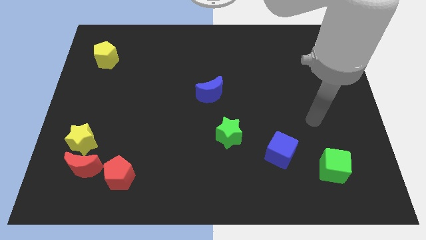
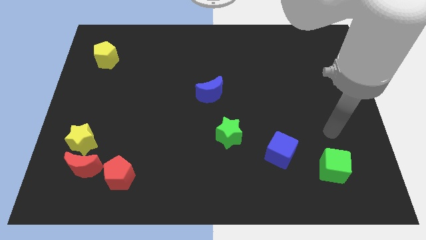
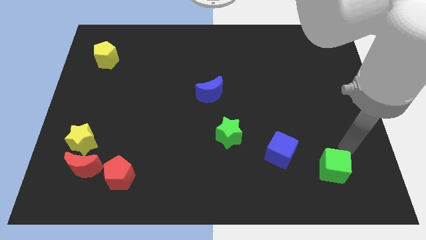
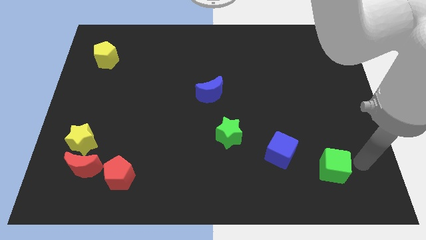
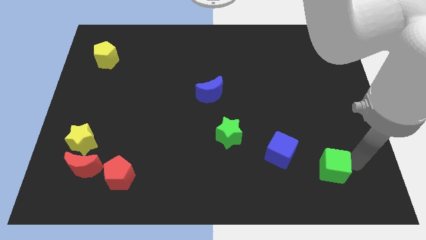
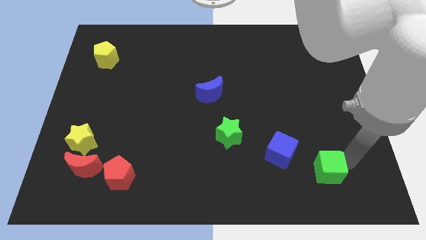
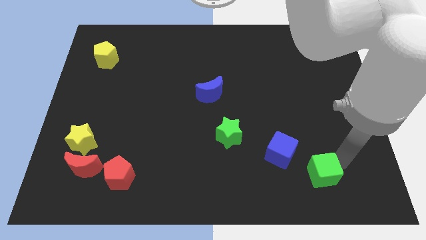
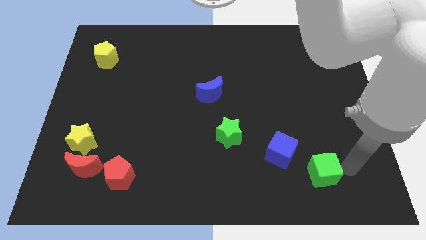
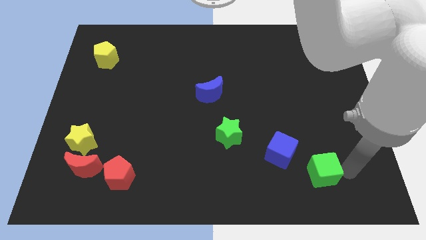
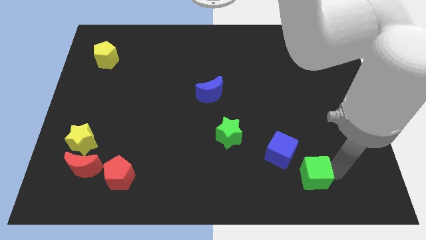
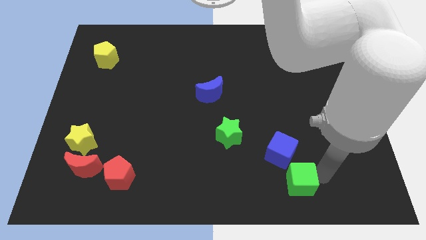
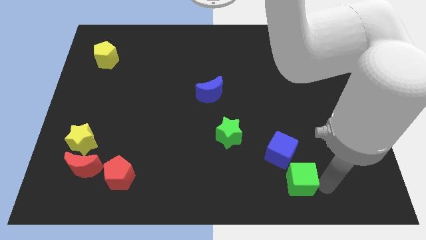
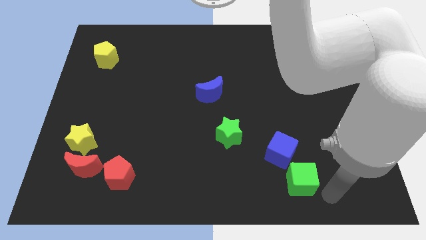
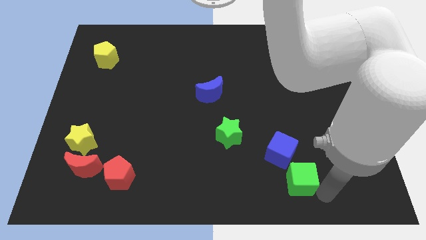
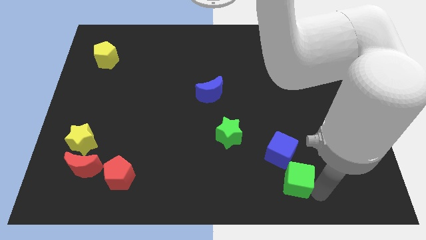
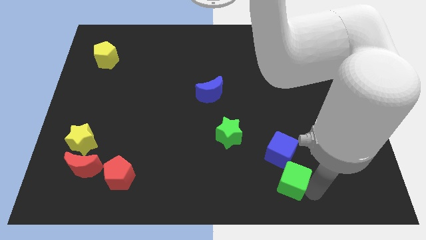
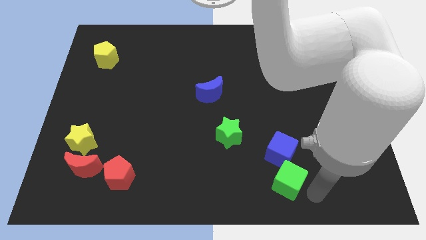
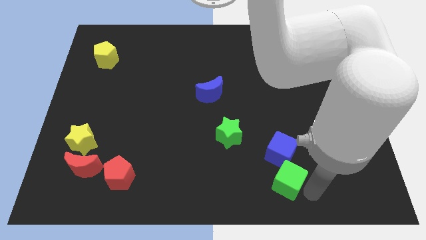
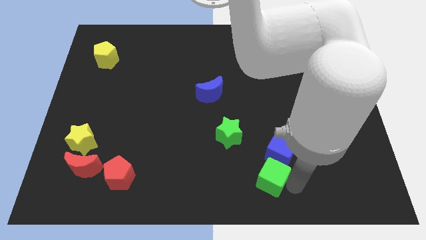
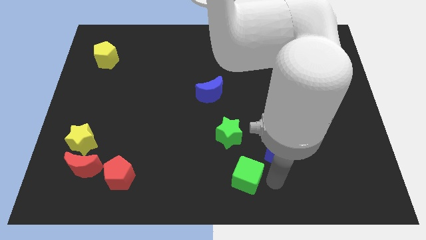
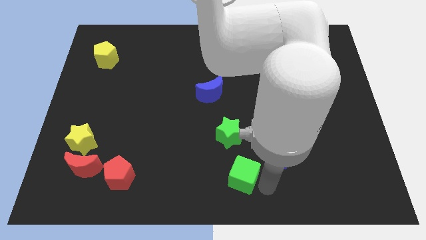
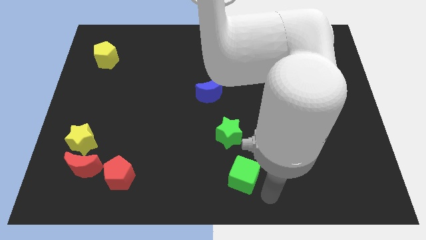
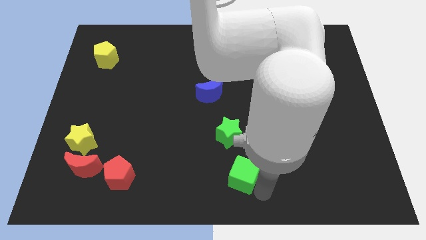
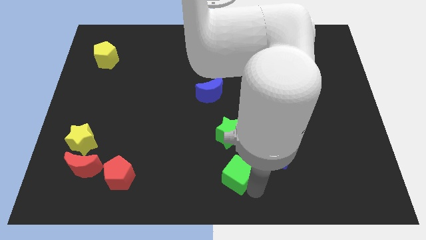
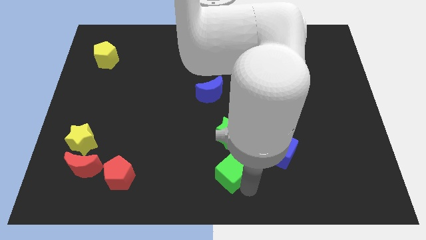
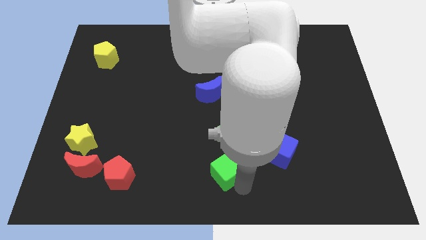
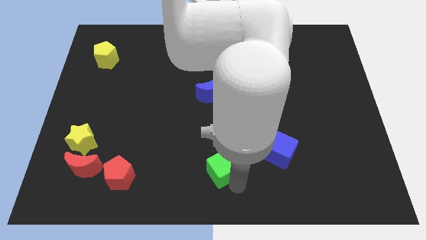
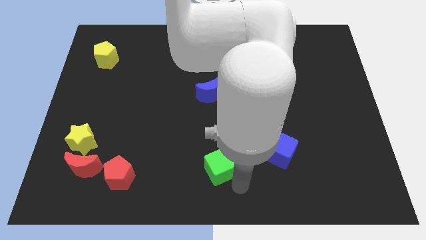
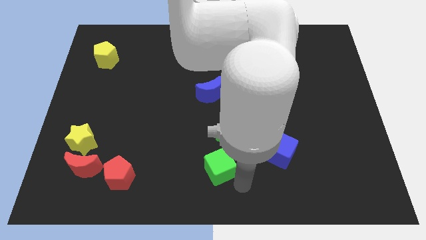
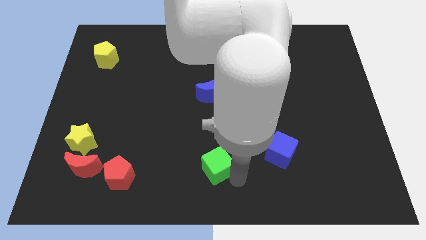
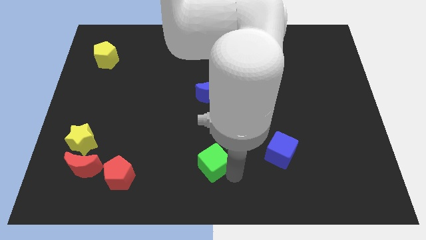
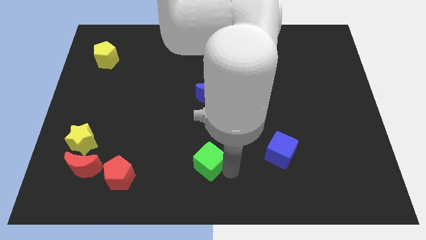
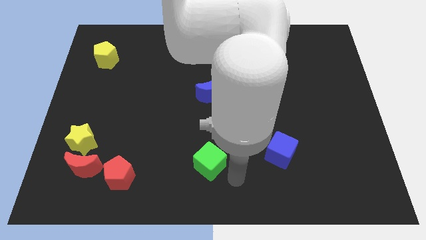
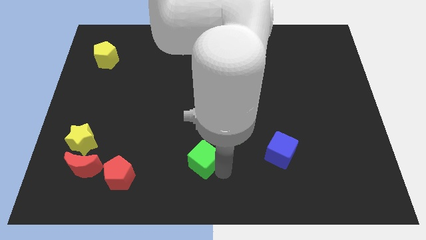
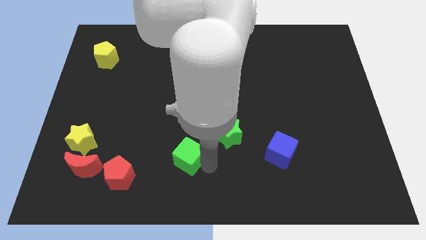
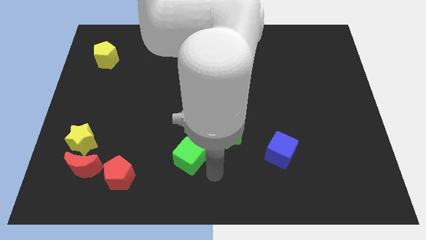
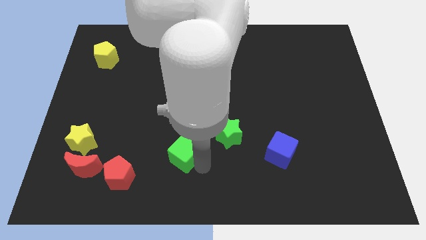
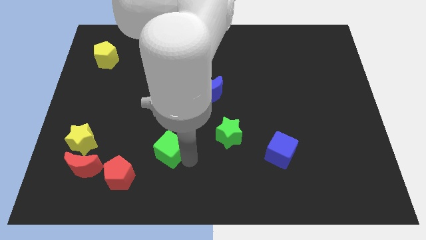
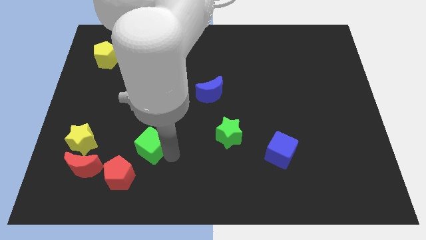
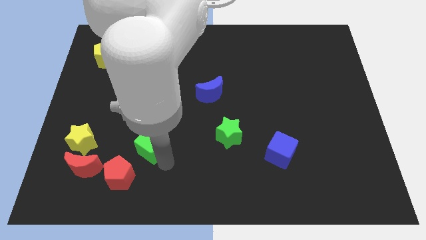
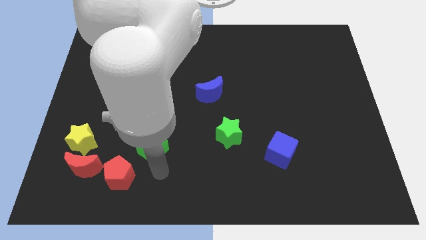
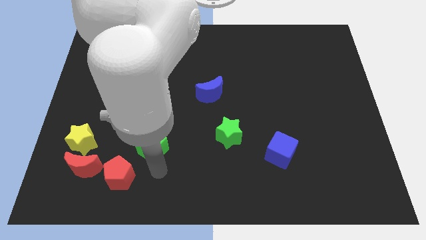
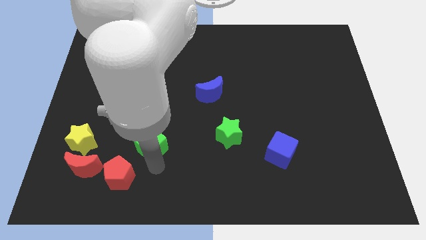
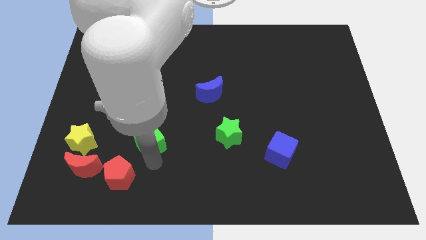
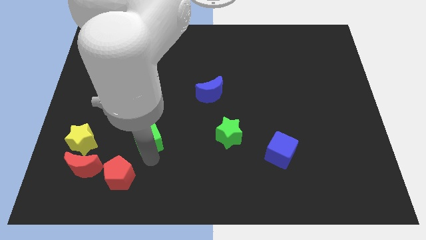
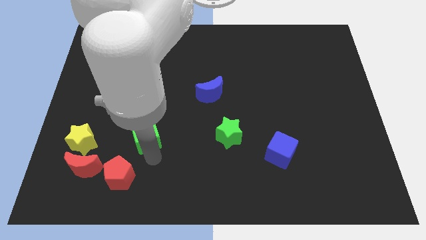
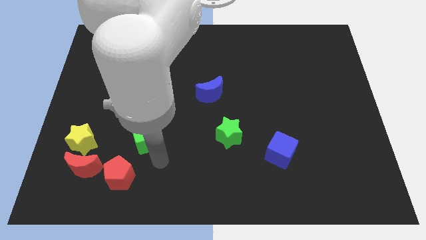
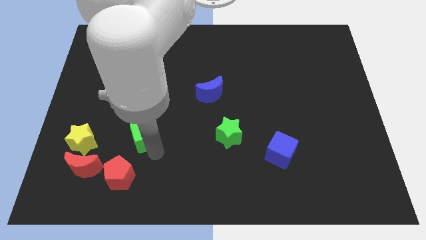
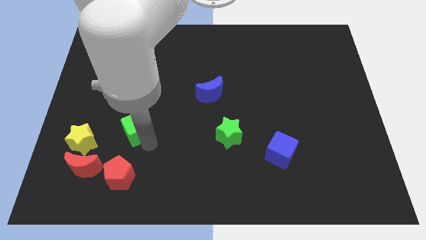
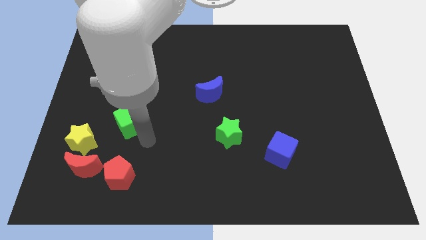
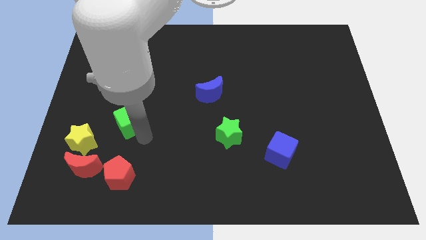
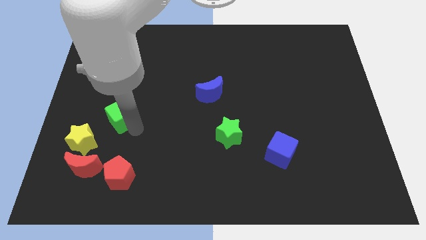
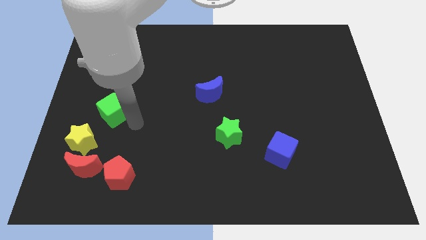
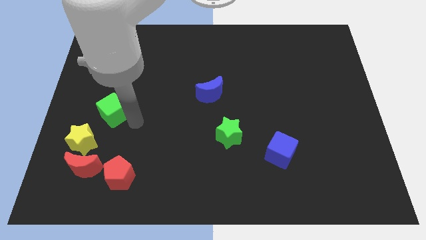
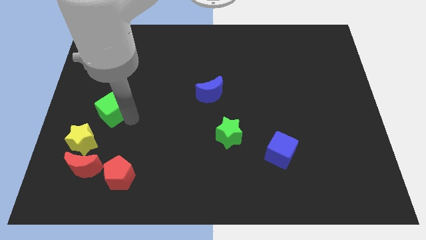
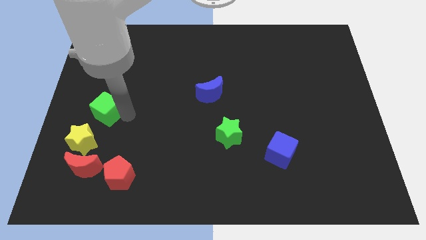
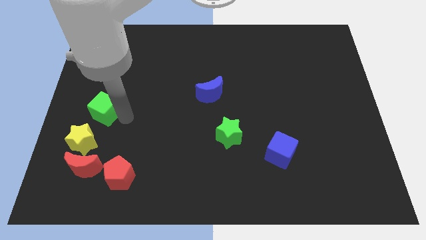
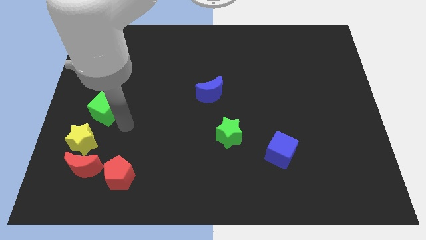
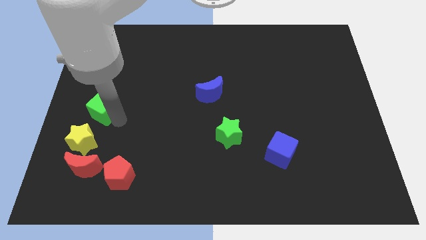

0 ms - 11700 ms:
slide the green cube to the center left

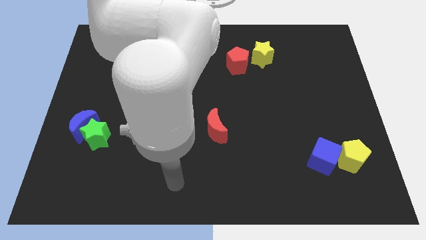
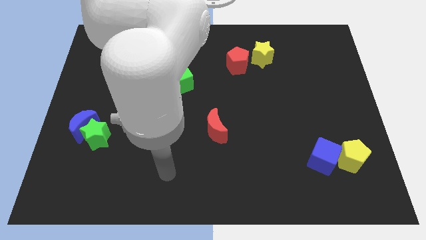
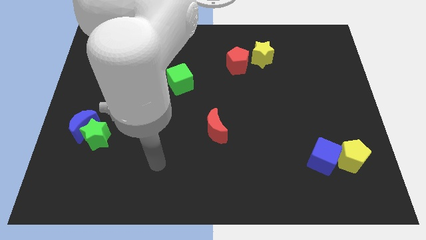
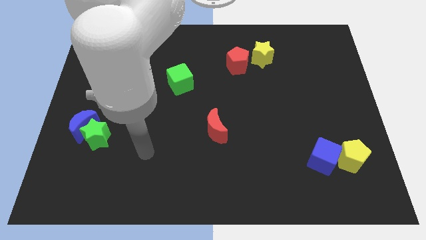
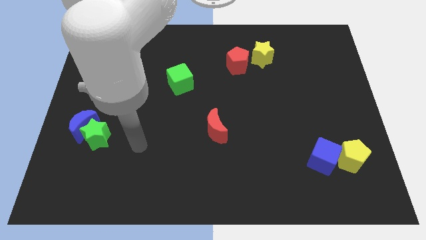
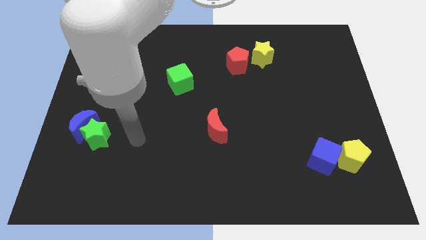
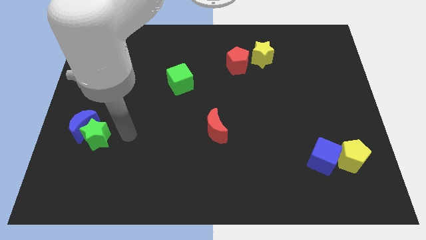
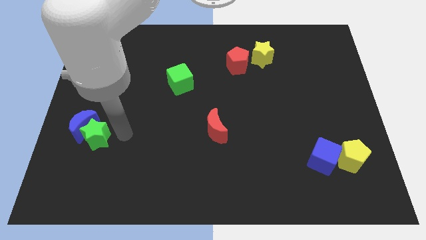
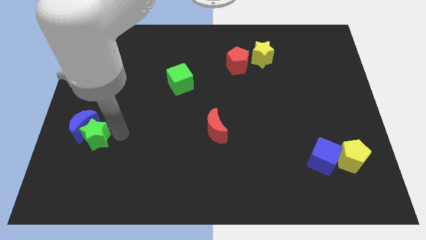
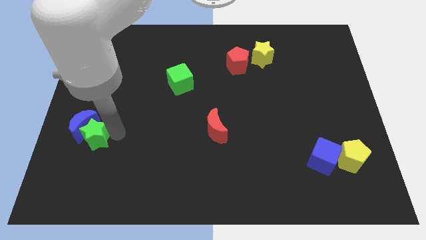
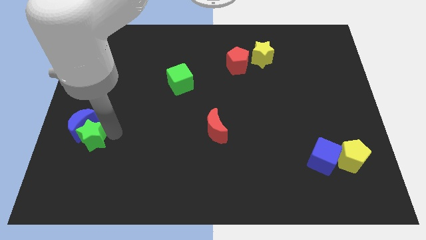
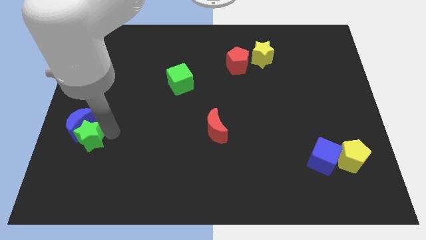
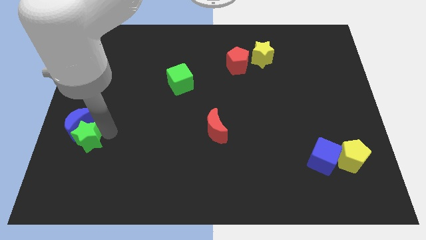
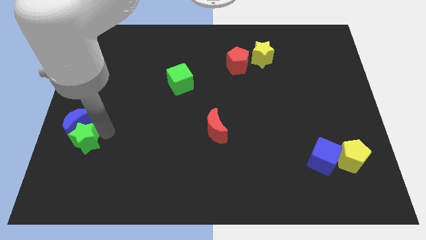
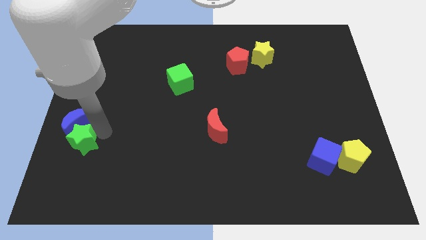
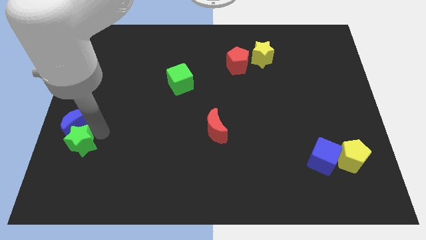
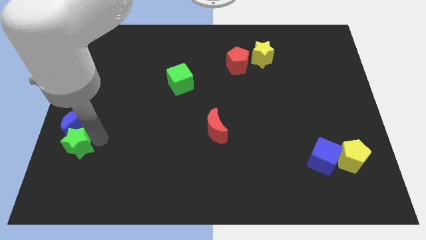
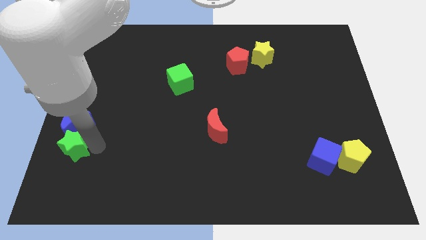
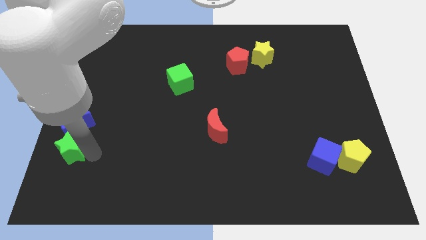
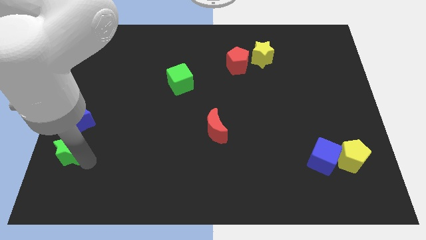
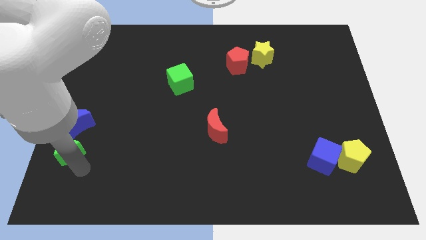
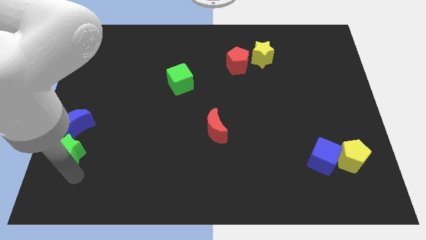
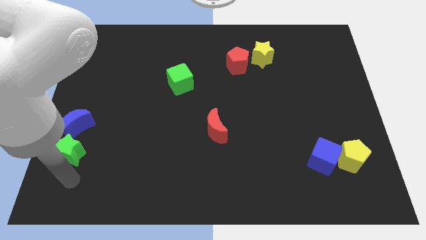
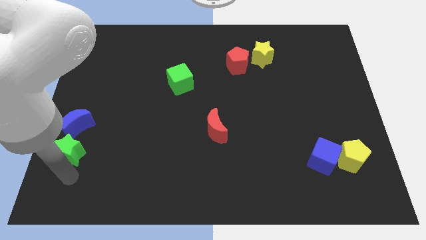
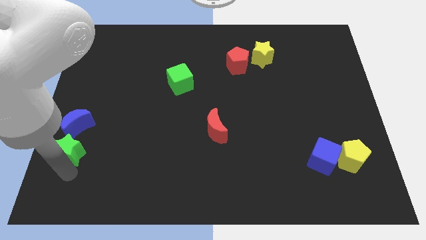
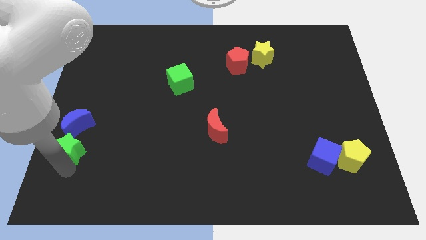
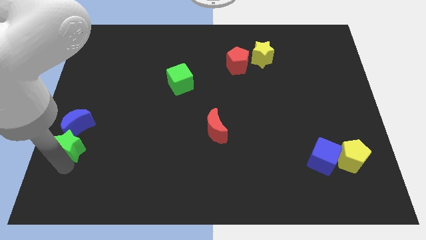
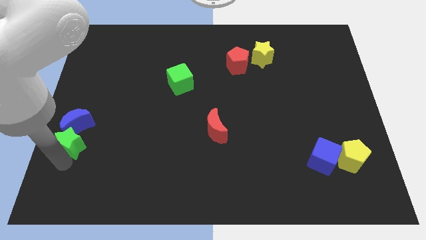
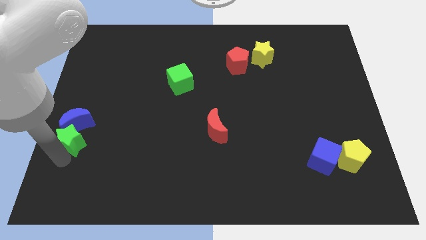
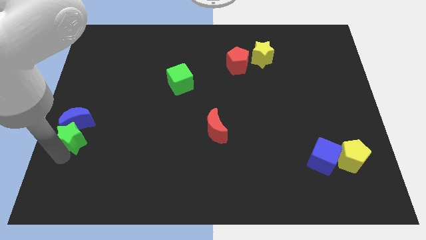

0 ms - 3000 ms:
push the green star to the center left
